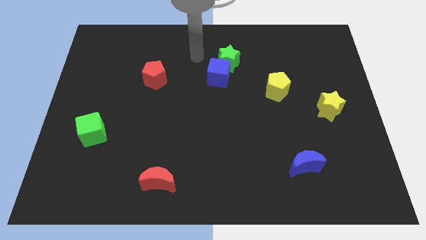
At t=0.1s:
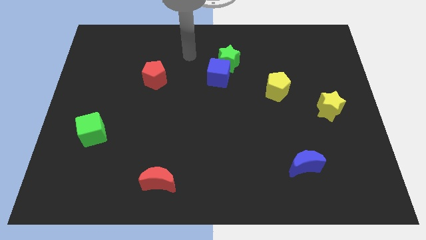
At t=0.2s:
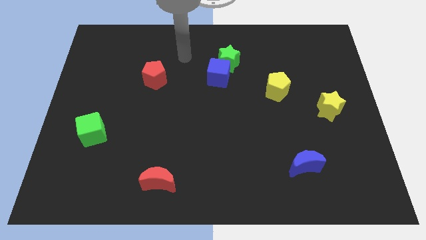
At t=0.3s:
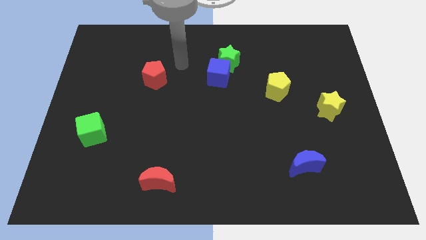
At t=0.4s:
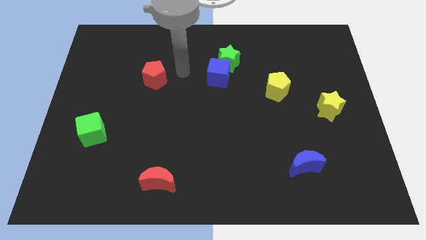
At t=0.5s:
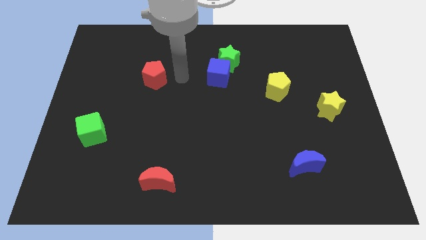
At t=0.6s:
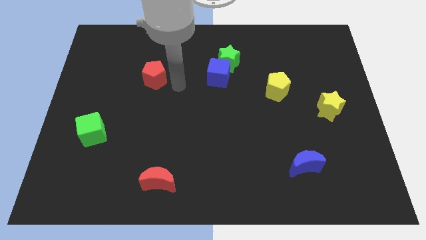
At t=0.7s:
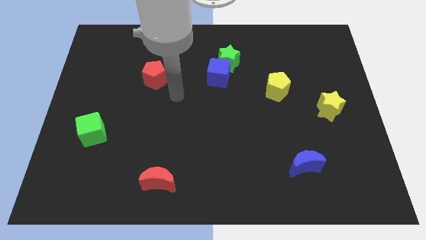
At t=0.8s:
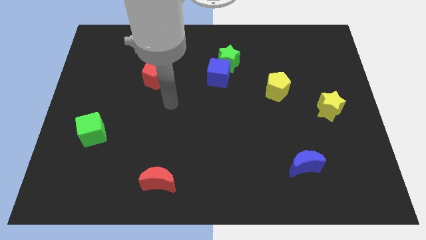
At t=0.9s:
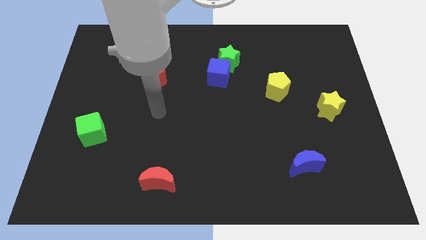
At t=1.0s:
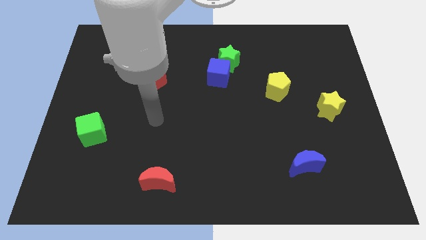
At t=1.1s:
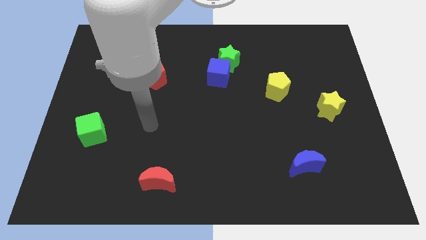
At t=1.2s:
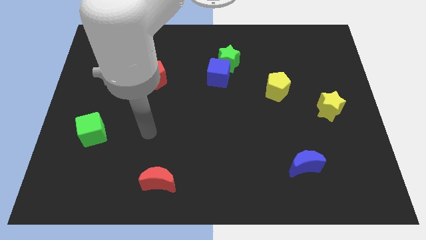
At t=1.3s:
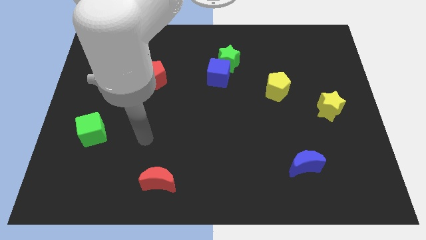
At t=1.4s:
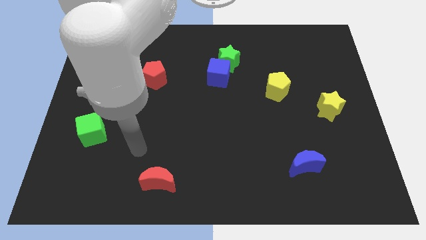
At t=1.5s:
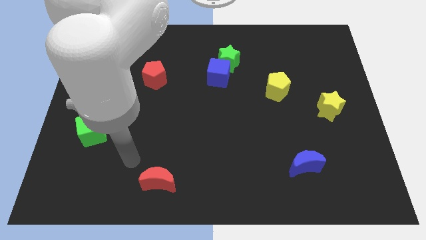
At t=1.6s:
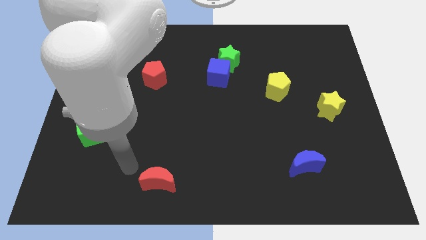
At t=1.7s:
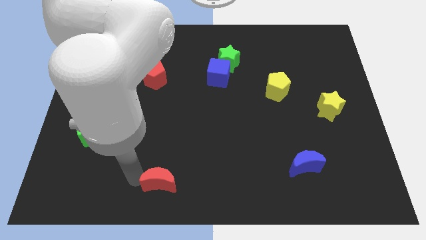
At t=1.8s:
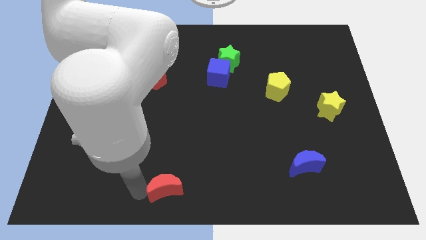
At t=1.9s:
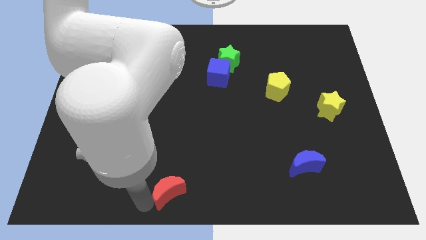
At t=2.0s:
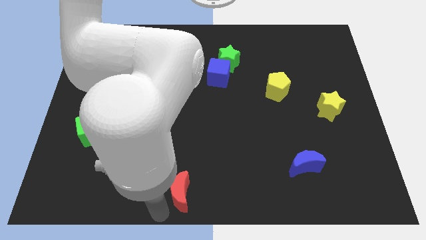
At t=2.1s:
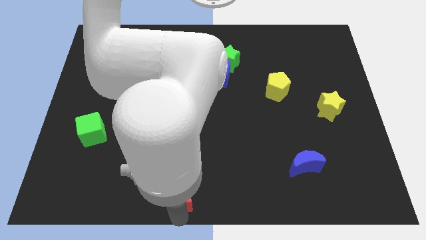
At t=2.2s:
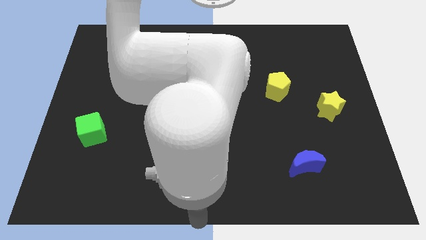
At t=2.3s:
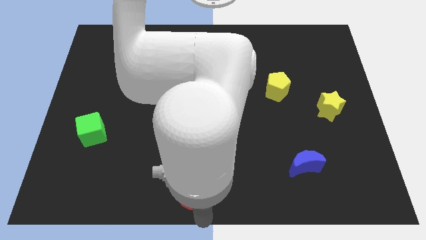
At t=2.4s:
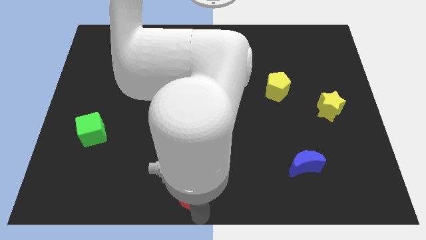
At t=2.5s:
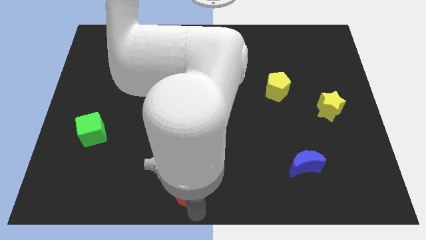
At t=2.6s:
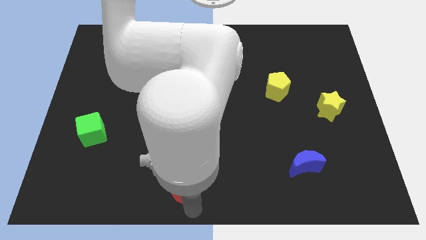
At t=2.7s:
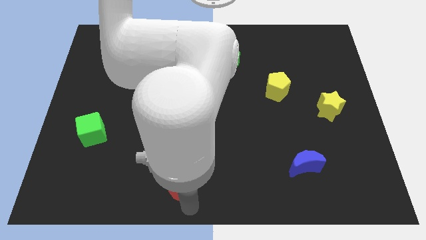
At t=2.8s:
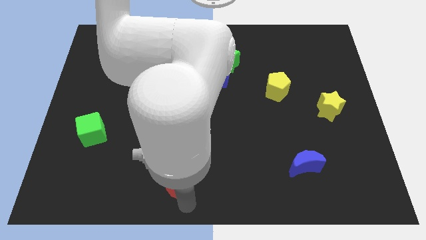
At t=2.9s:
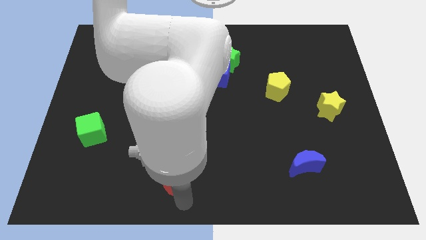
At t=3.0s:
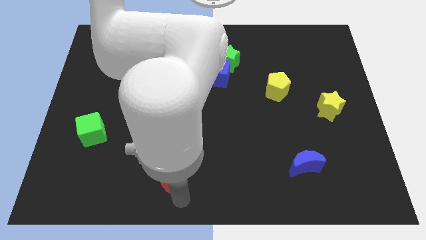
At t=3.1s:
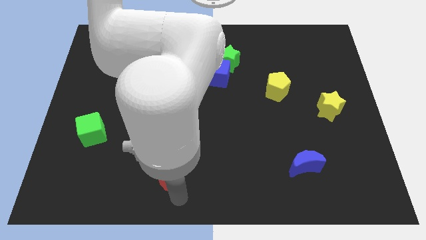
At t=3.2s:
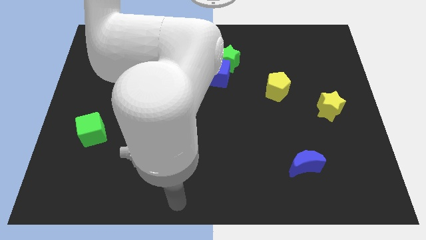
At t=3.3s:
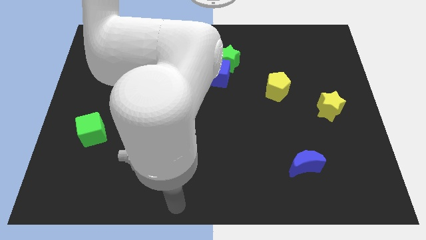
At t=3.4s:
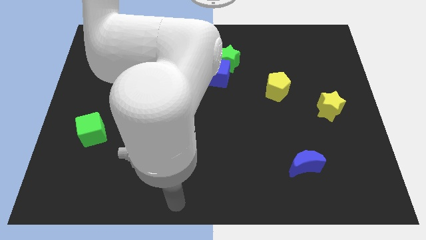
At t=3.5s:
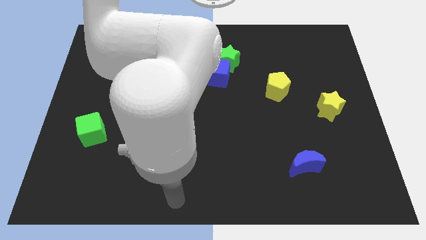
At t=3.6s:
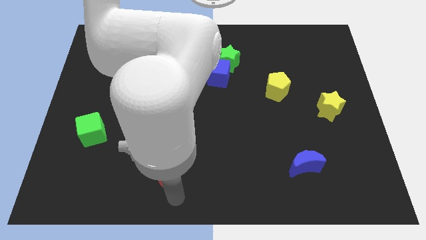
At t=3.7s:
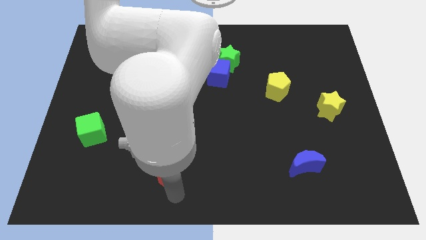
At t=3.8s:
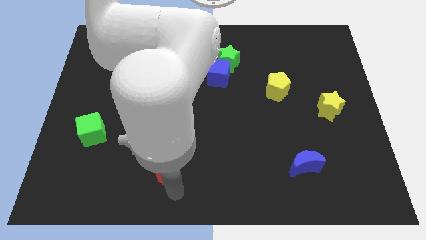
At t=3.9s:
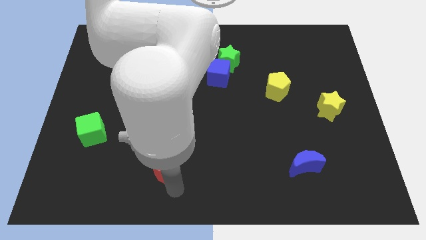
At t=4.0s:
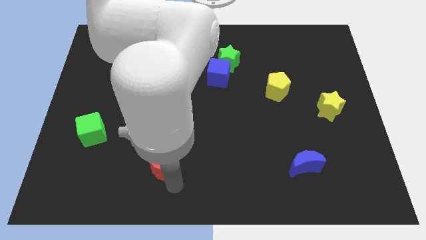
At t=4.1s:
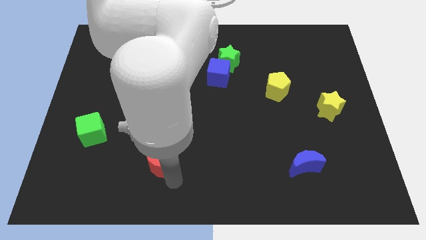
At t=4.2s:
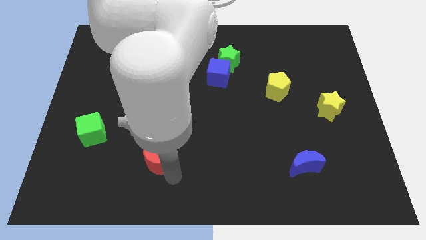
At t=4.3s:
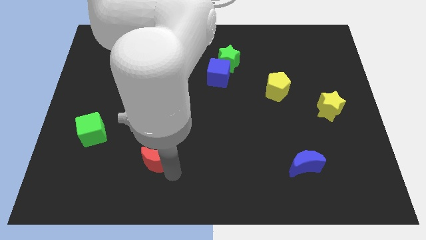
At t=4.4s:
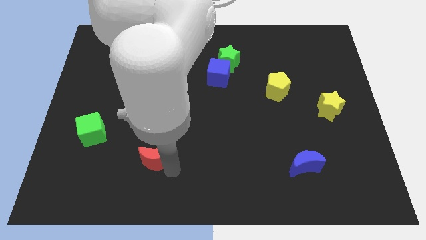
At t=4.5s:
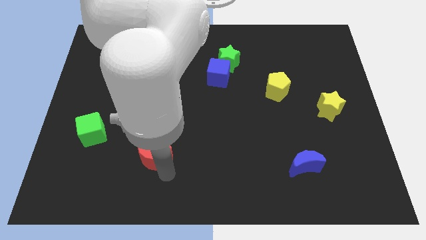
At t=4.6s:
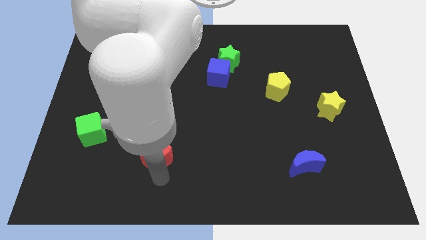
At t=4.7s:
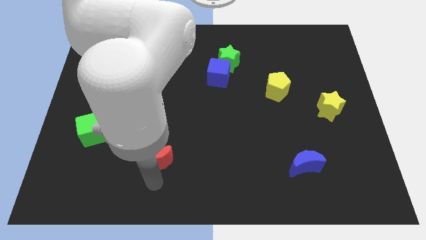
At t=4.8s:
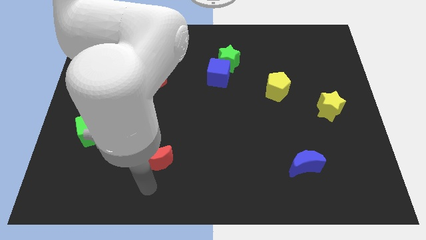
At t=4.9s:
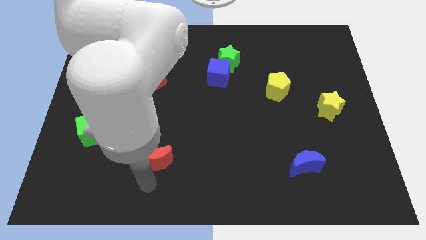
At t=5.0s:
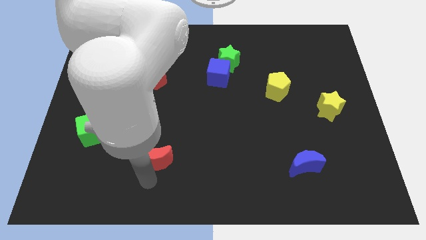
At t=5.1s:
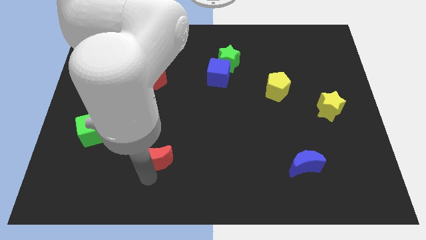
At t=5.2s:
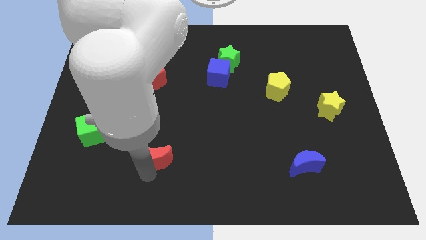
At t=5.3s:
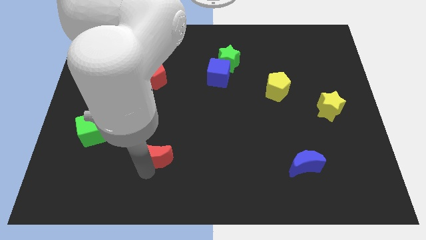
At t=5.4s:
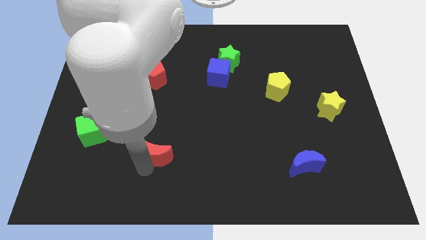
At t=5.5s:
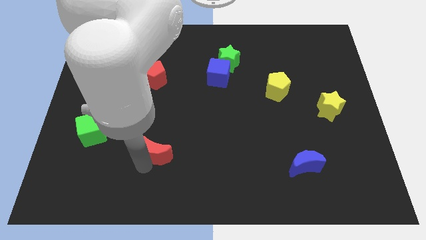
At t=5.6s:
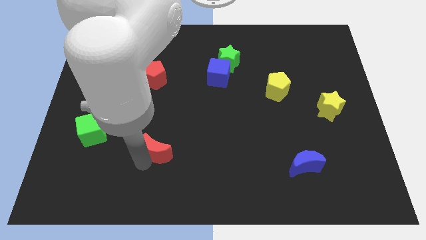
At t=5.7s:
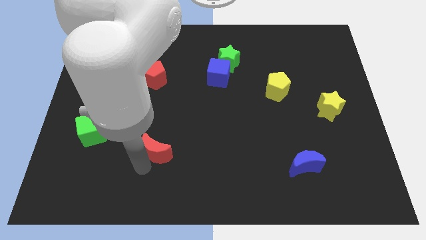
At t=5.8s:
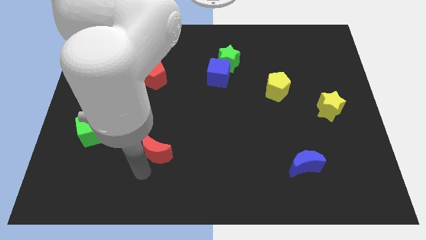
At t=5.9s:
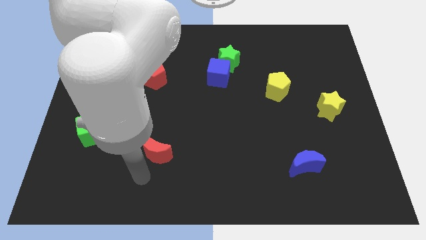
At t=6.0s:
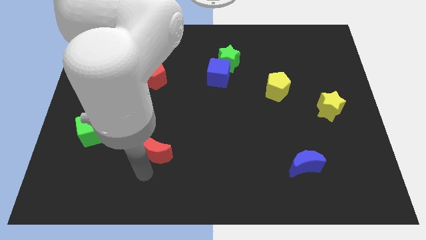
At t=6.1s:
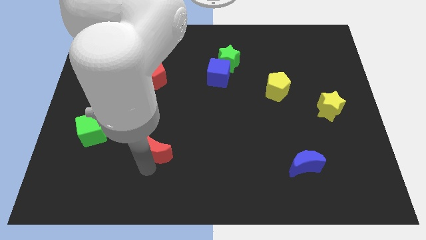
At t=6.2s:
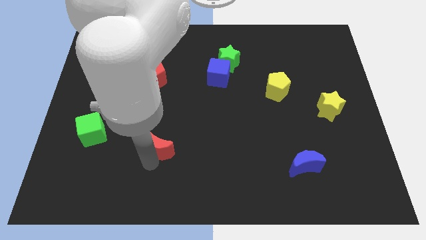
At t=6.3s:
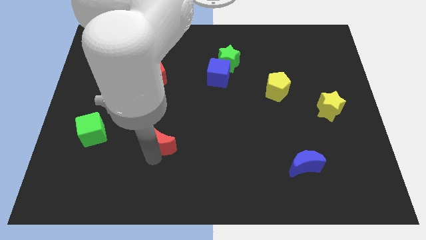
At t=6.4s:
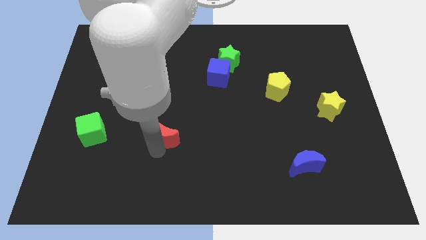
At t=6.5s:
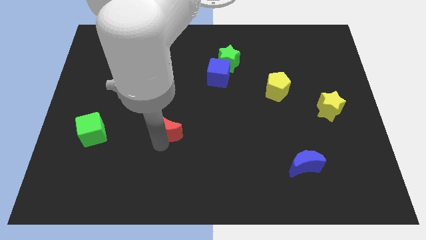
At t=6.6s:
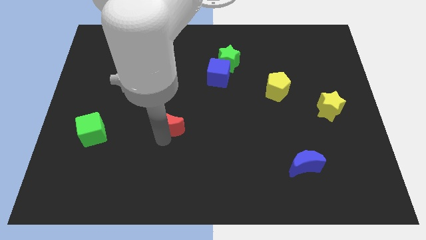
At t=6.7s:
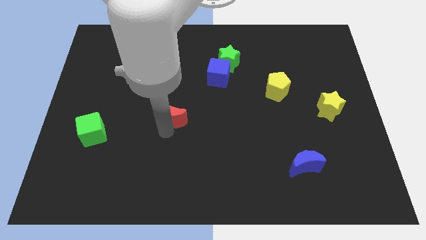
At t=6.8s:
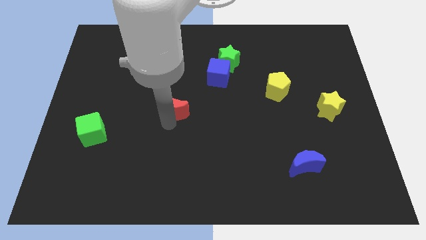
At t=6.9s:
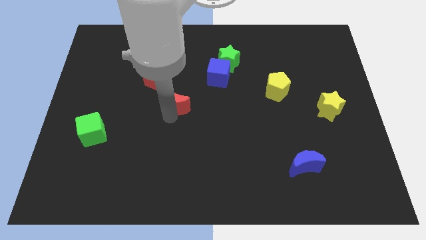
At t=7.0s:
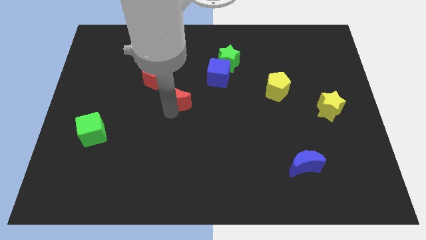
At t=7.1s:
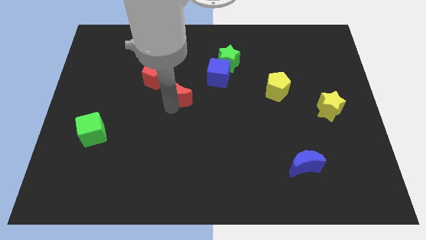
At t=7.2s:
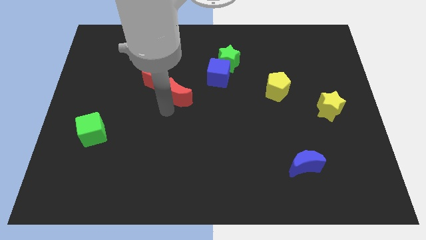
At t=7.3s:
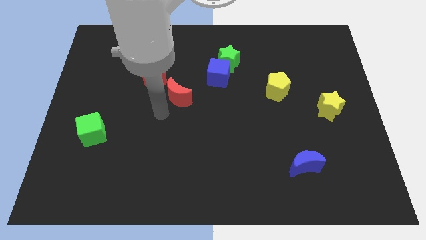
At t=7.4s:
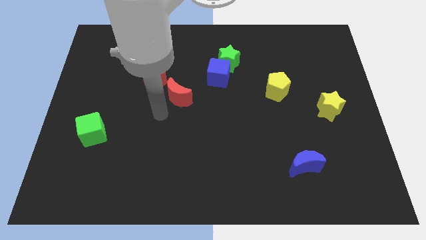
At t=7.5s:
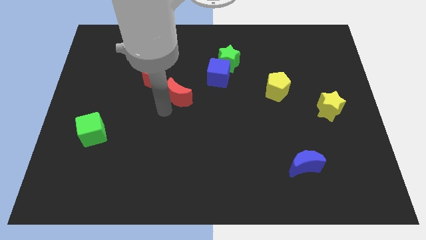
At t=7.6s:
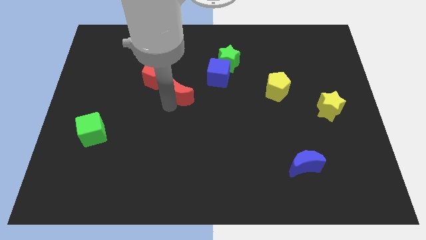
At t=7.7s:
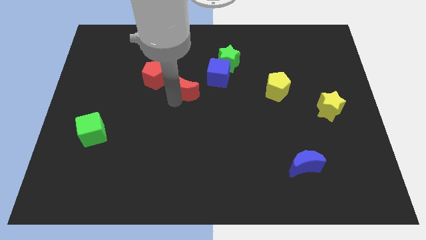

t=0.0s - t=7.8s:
push the red moon to the right side of the red pentagon

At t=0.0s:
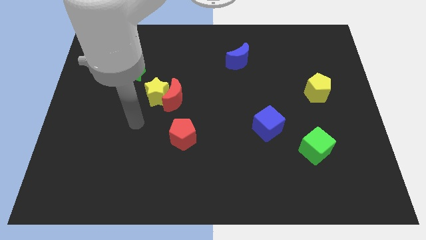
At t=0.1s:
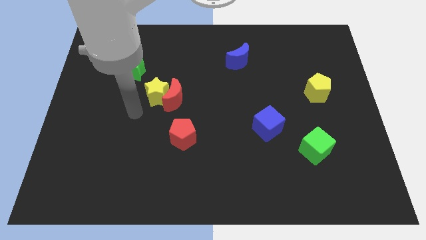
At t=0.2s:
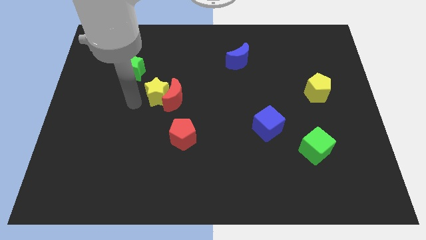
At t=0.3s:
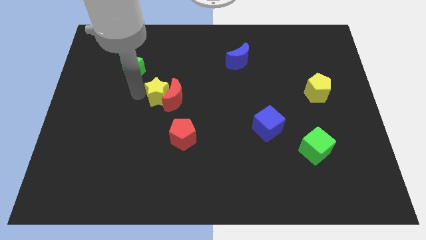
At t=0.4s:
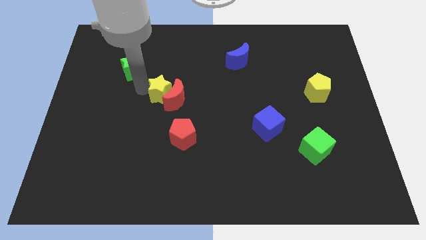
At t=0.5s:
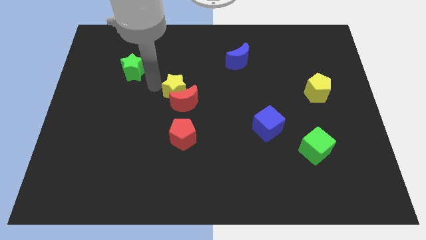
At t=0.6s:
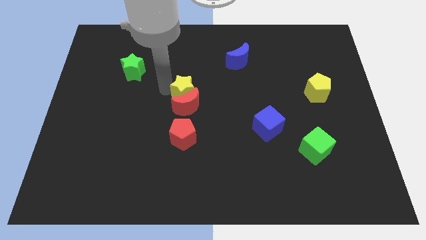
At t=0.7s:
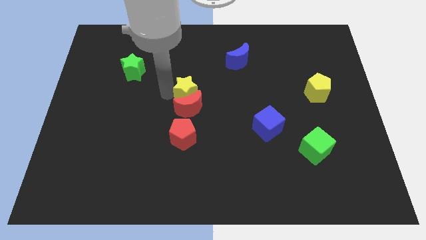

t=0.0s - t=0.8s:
push the red moon diagonally up and to the right of the red pentagon
